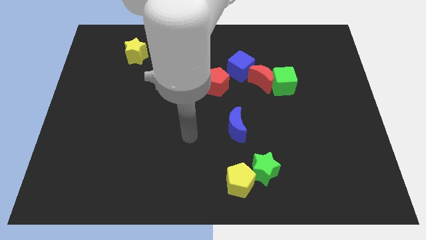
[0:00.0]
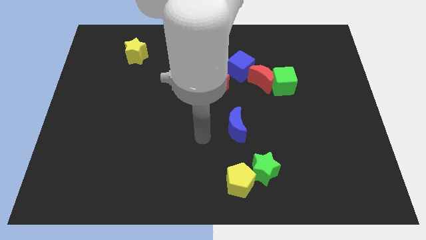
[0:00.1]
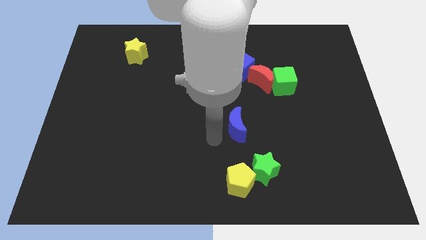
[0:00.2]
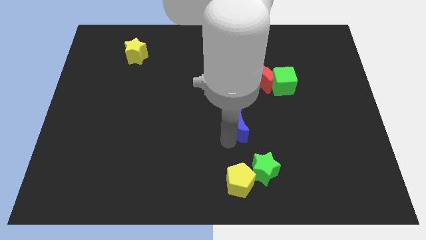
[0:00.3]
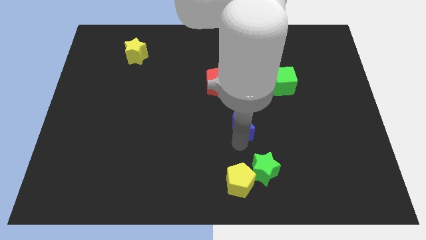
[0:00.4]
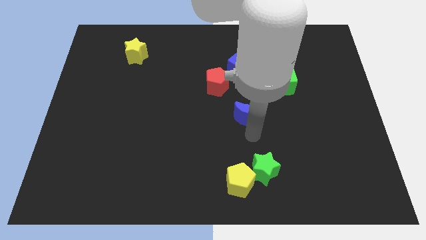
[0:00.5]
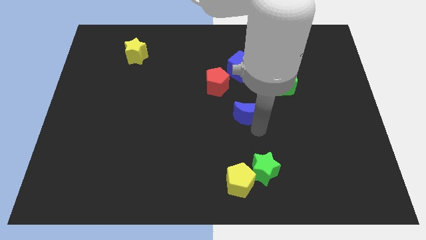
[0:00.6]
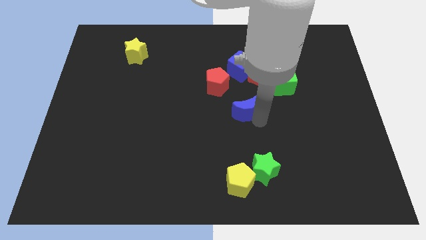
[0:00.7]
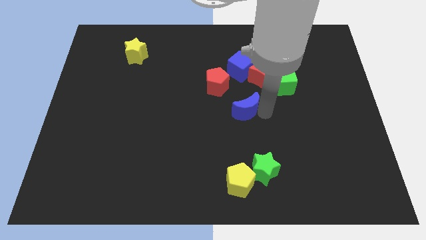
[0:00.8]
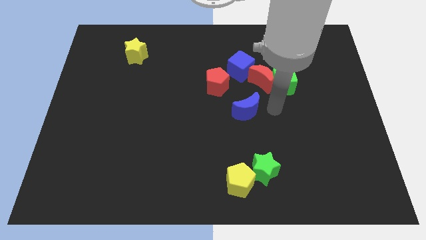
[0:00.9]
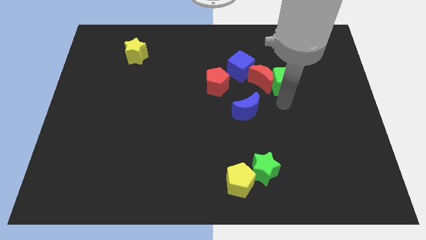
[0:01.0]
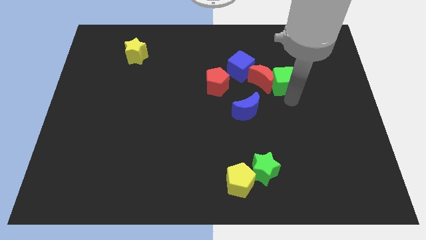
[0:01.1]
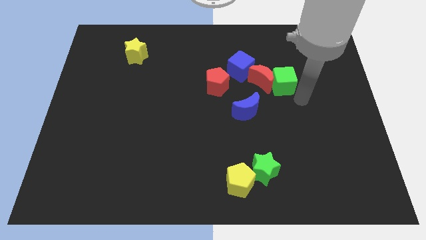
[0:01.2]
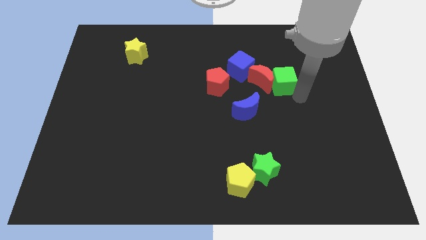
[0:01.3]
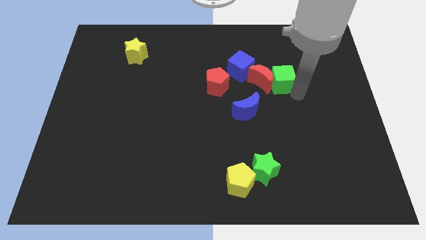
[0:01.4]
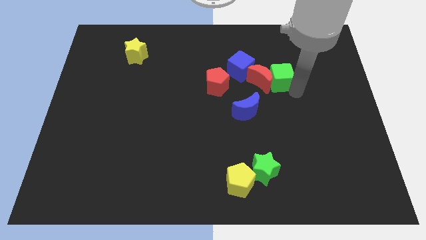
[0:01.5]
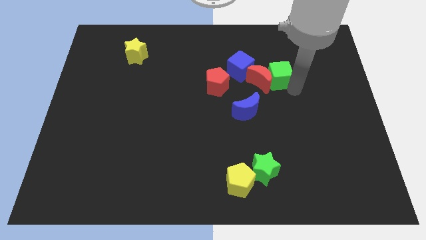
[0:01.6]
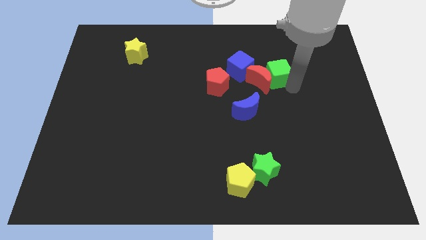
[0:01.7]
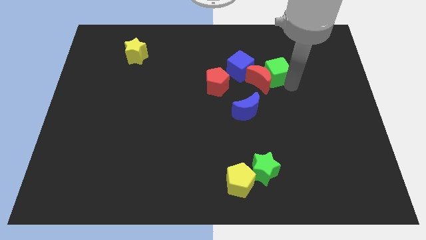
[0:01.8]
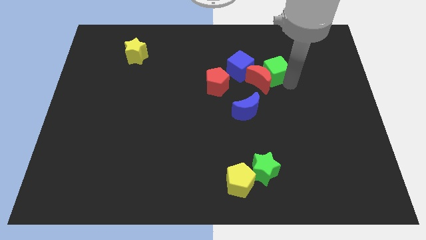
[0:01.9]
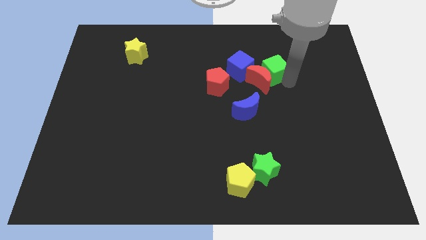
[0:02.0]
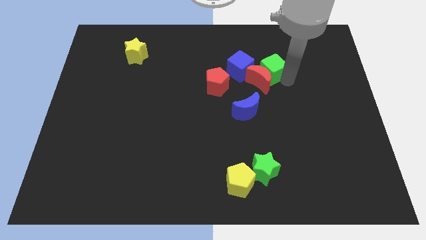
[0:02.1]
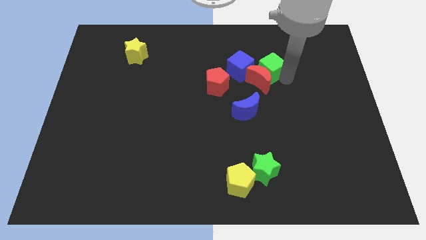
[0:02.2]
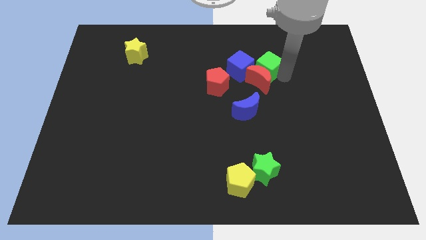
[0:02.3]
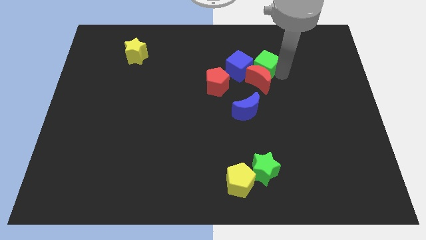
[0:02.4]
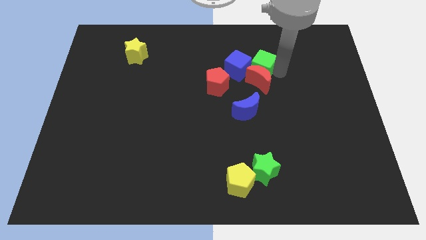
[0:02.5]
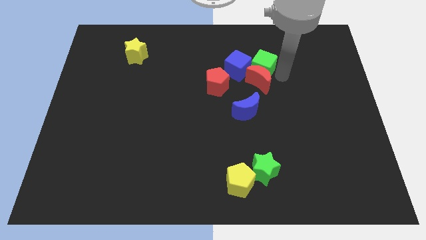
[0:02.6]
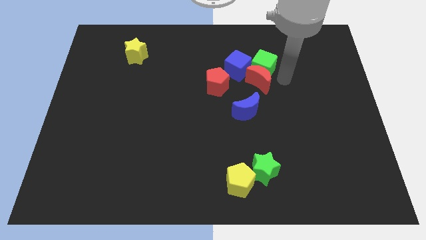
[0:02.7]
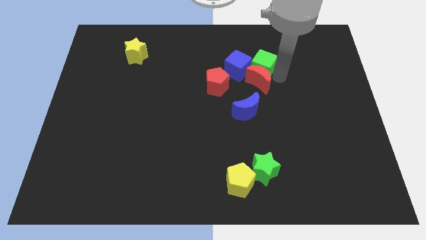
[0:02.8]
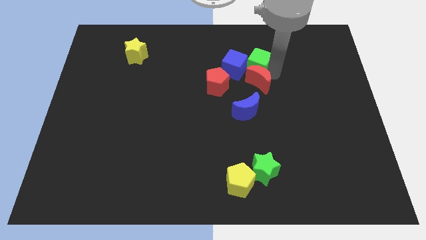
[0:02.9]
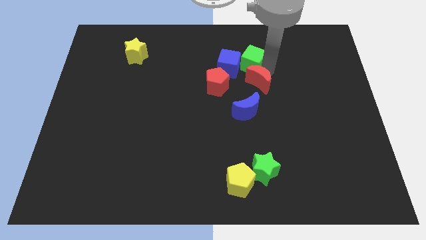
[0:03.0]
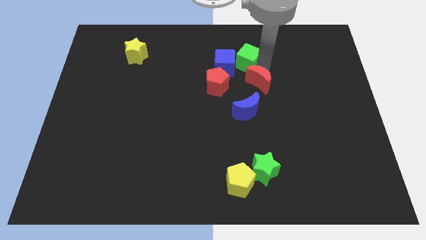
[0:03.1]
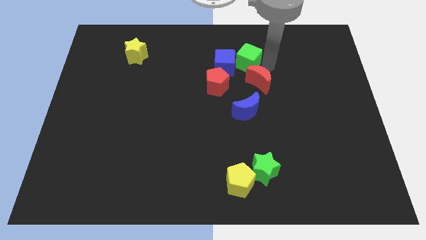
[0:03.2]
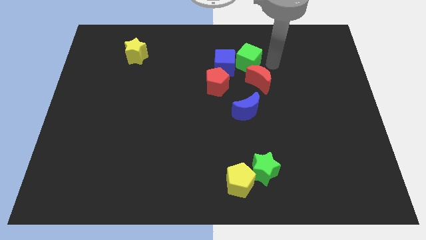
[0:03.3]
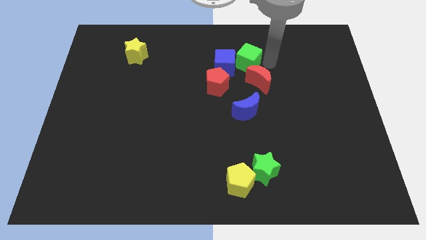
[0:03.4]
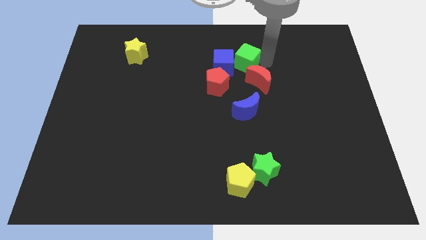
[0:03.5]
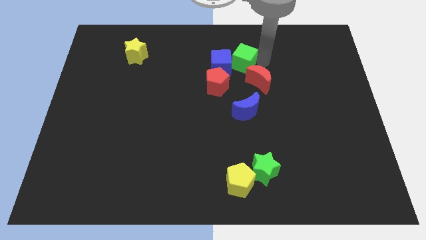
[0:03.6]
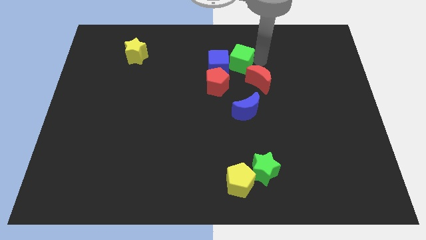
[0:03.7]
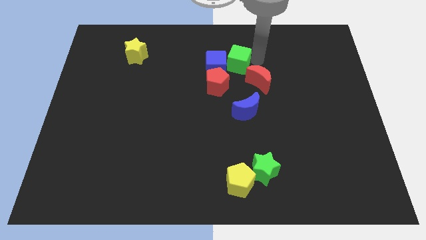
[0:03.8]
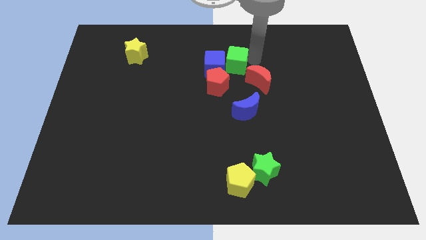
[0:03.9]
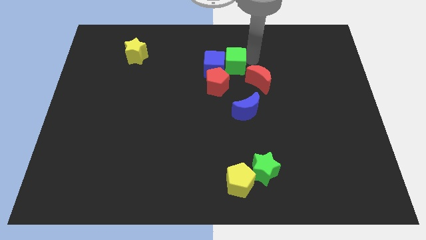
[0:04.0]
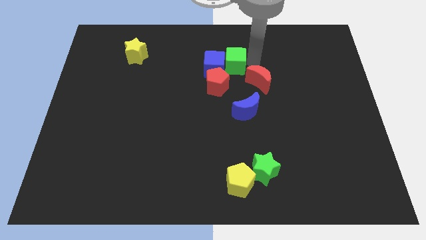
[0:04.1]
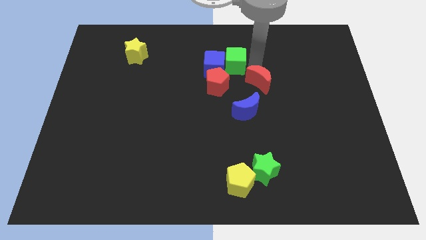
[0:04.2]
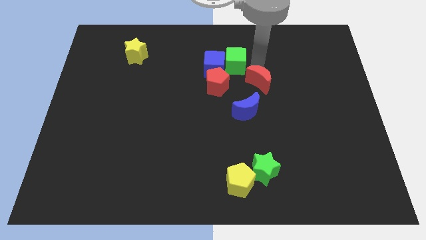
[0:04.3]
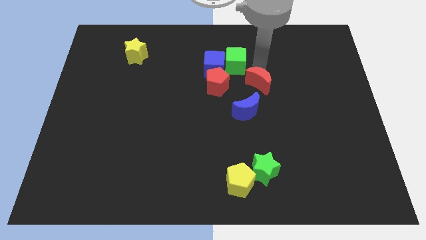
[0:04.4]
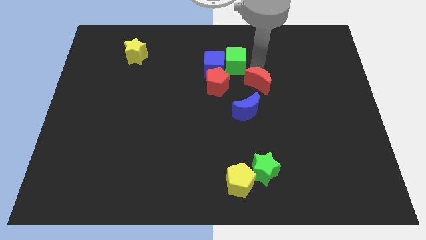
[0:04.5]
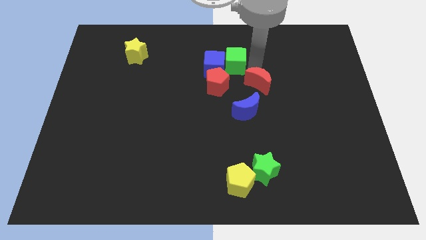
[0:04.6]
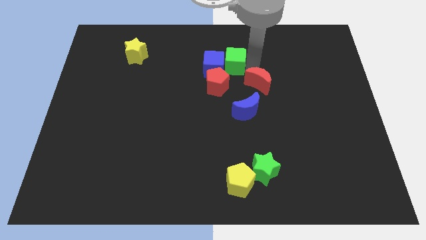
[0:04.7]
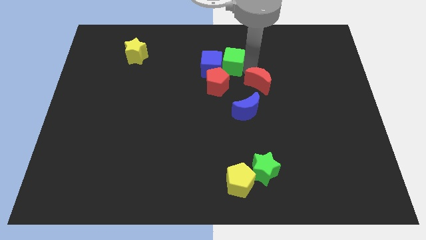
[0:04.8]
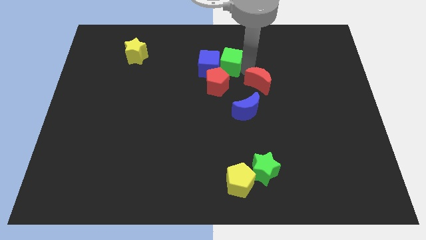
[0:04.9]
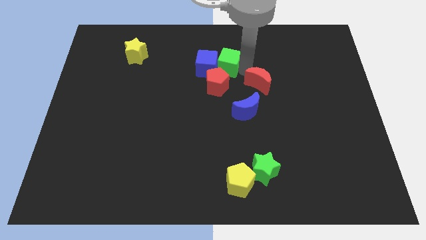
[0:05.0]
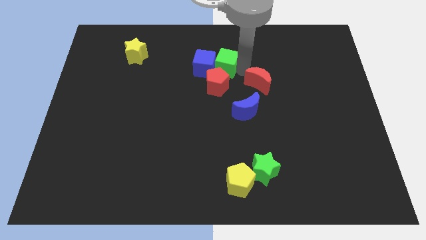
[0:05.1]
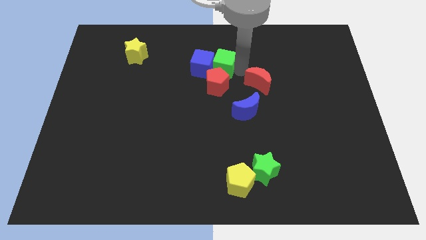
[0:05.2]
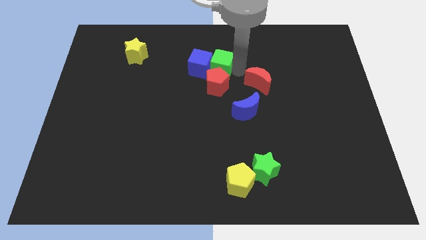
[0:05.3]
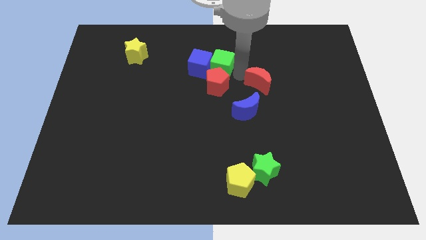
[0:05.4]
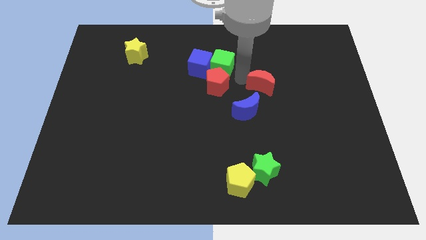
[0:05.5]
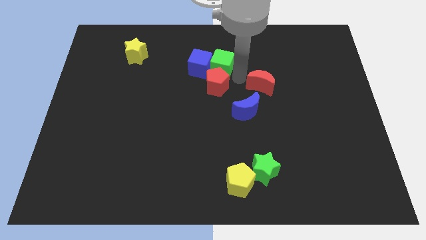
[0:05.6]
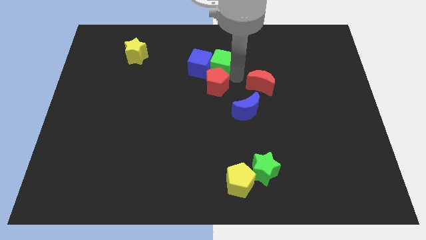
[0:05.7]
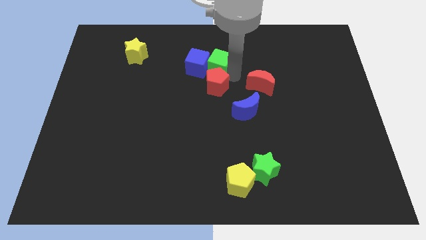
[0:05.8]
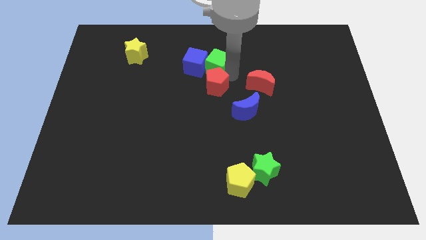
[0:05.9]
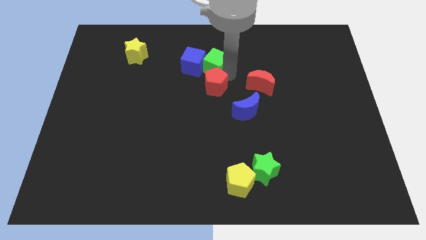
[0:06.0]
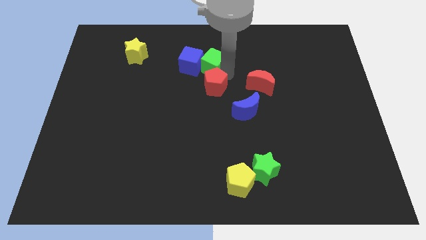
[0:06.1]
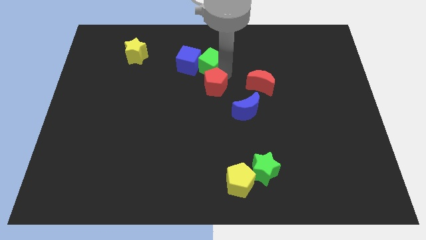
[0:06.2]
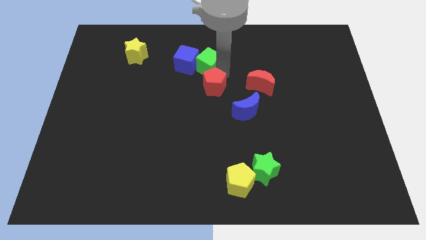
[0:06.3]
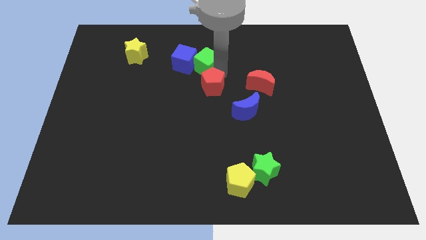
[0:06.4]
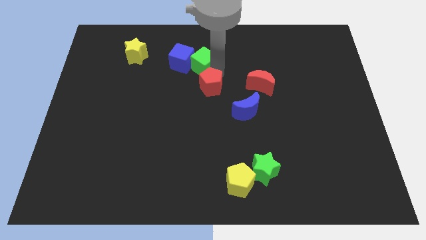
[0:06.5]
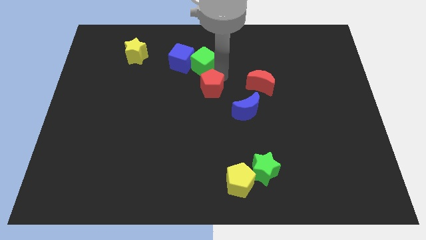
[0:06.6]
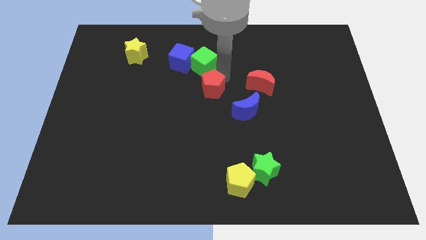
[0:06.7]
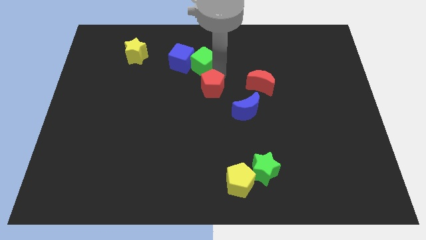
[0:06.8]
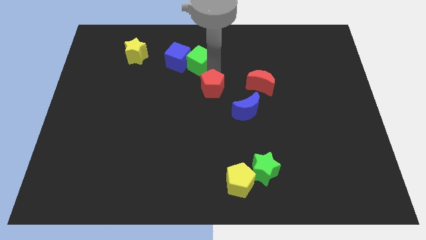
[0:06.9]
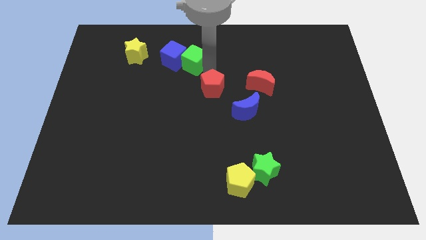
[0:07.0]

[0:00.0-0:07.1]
slide the green cube just right of the yellow star

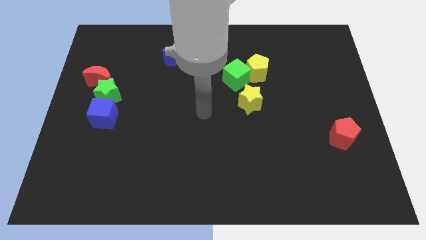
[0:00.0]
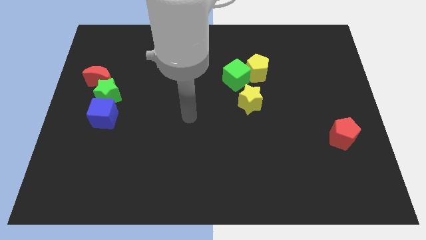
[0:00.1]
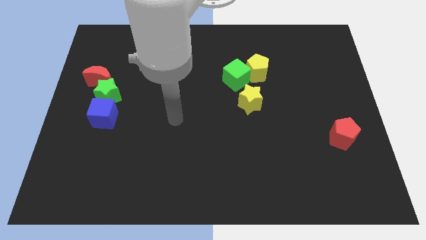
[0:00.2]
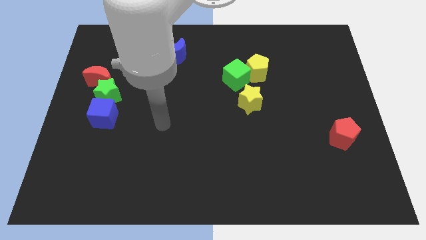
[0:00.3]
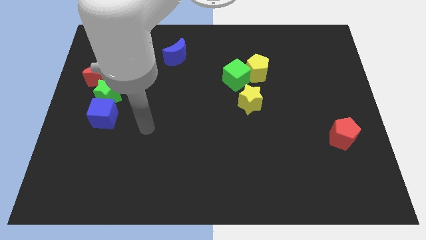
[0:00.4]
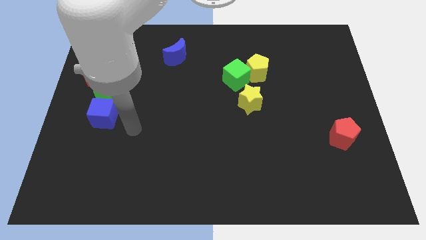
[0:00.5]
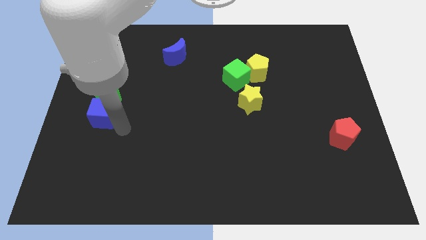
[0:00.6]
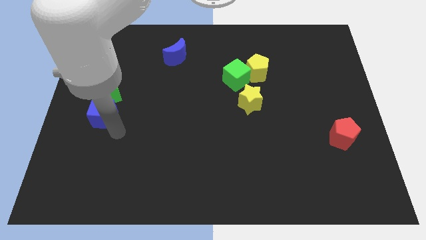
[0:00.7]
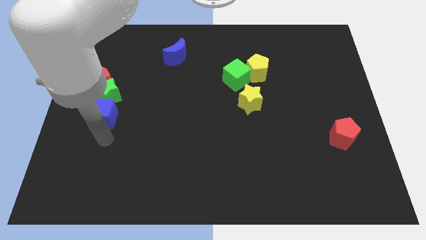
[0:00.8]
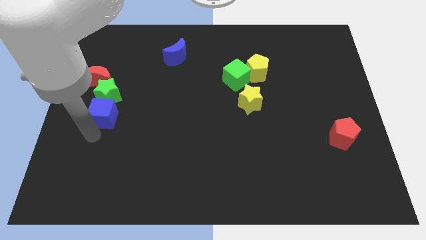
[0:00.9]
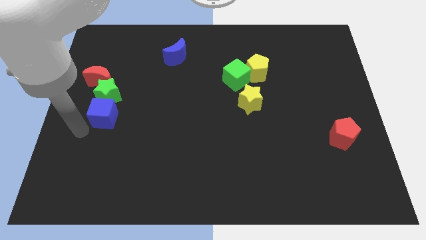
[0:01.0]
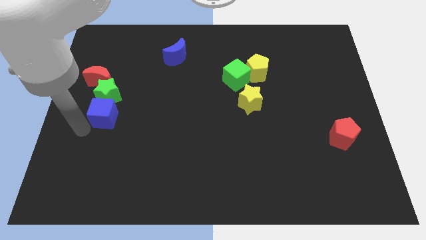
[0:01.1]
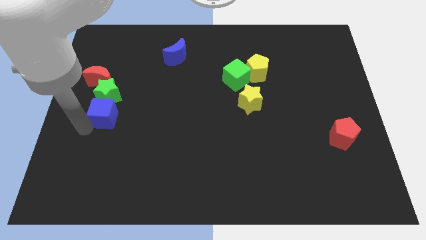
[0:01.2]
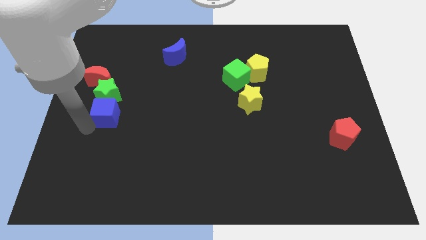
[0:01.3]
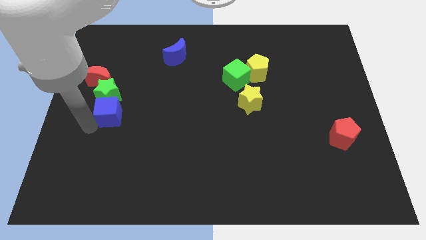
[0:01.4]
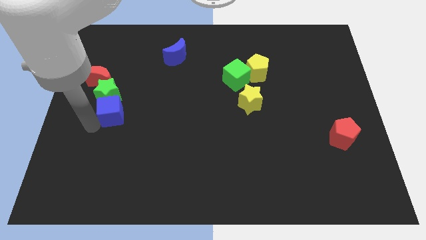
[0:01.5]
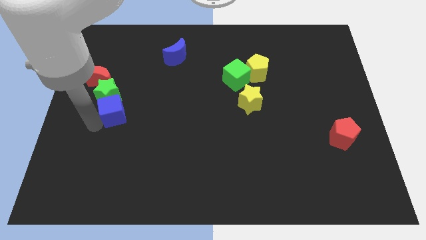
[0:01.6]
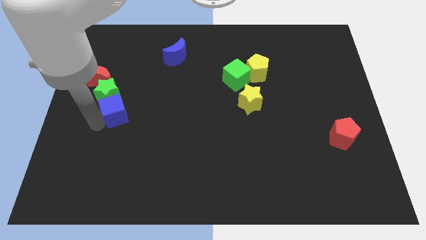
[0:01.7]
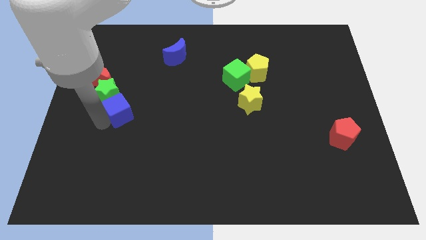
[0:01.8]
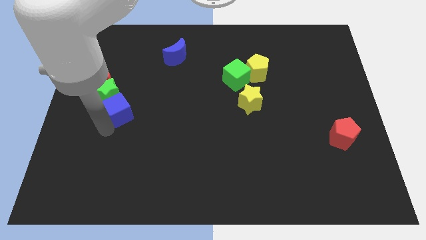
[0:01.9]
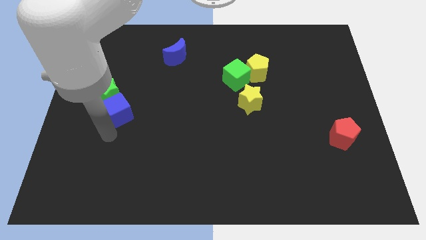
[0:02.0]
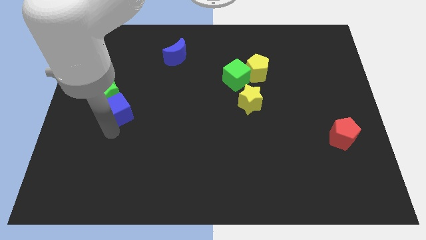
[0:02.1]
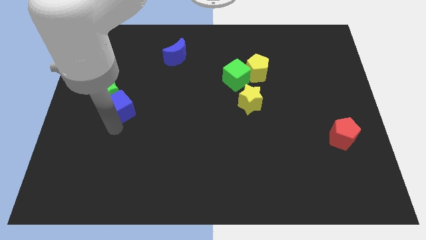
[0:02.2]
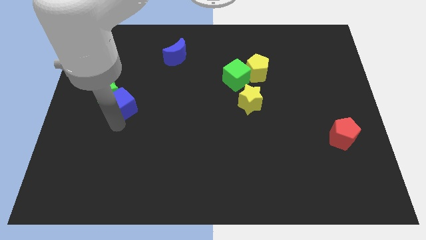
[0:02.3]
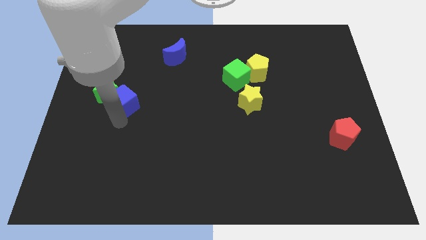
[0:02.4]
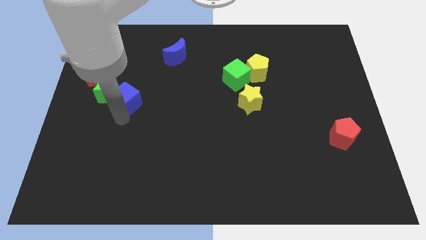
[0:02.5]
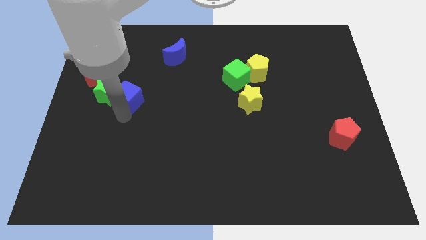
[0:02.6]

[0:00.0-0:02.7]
slide the blue cube to the top right side of the green star
